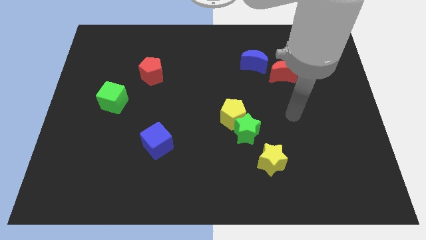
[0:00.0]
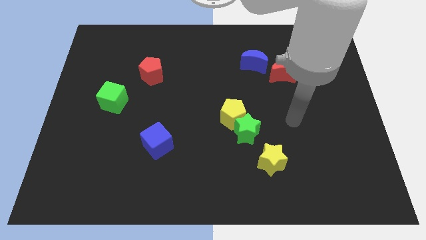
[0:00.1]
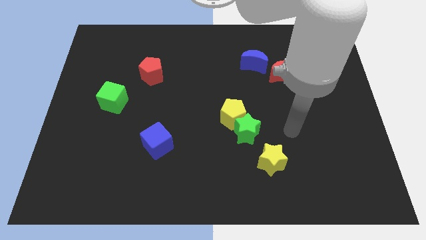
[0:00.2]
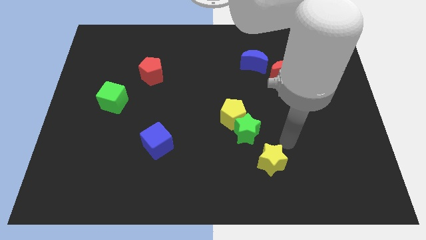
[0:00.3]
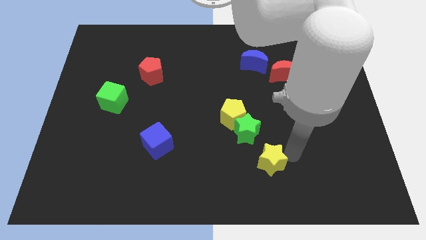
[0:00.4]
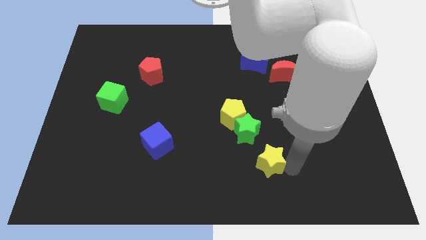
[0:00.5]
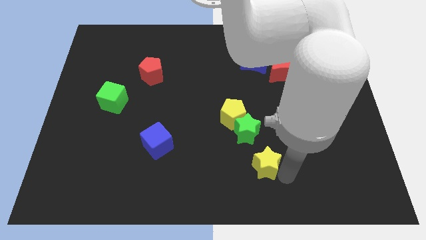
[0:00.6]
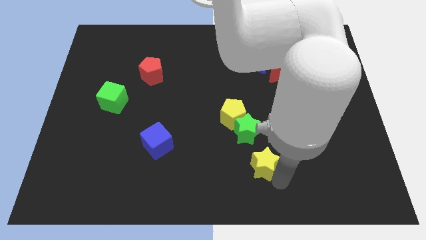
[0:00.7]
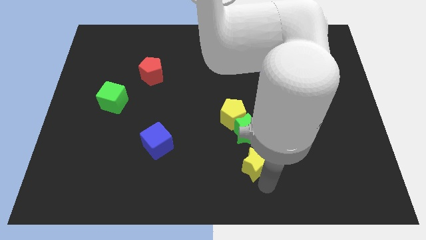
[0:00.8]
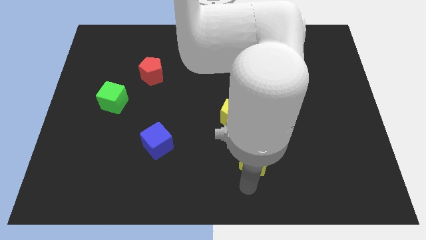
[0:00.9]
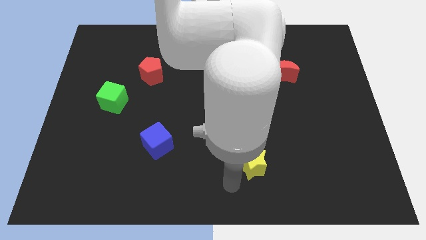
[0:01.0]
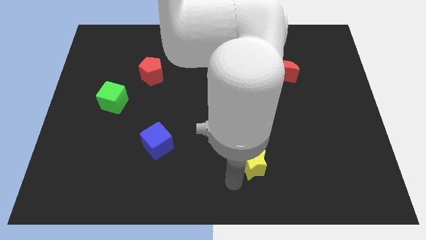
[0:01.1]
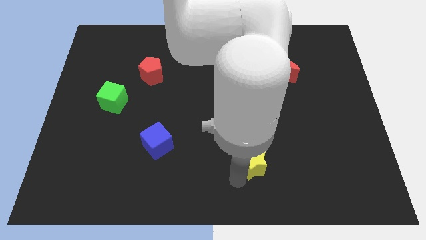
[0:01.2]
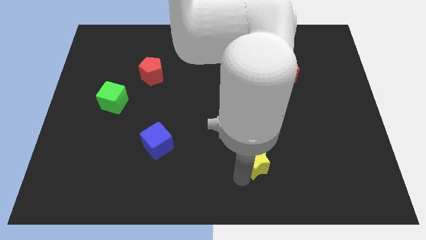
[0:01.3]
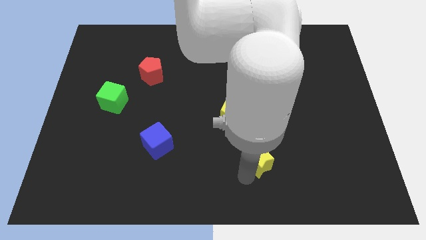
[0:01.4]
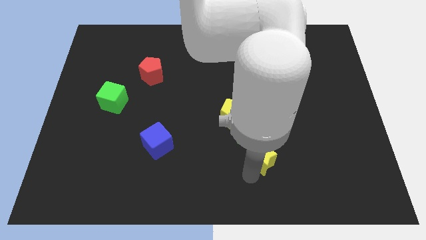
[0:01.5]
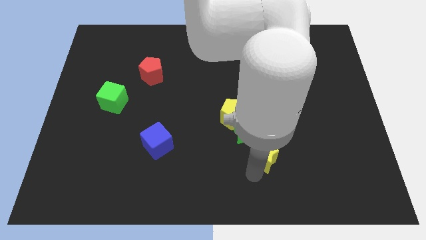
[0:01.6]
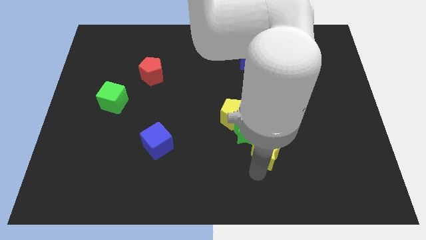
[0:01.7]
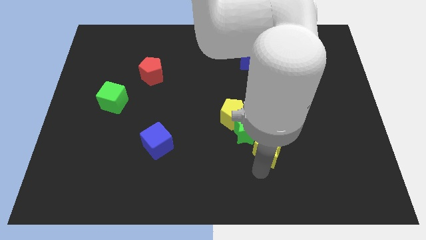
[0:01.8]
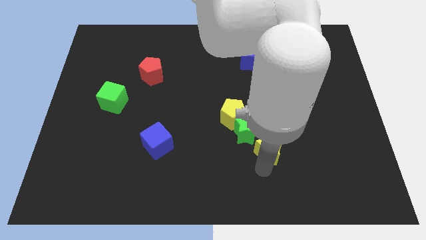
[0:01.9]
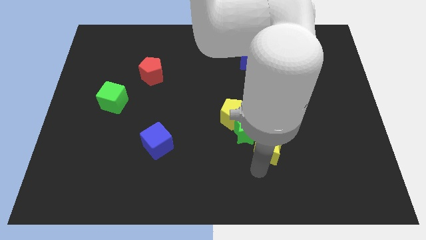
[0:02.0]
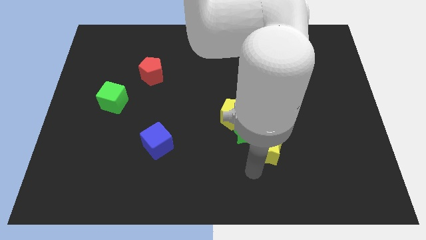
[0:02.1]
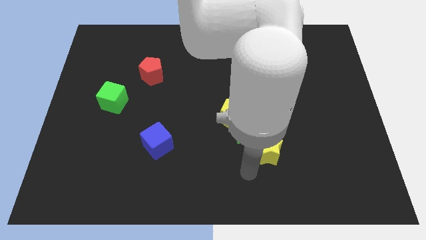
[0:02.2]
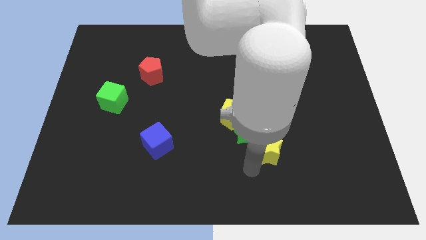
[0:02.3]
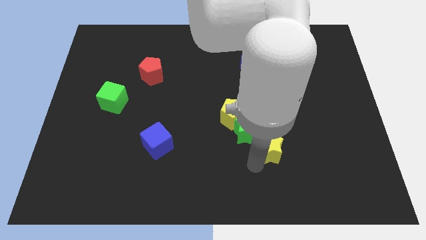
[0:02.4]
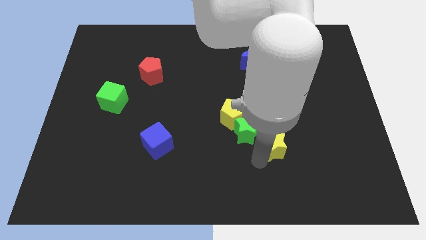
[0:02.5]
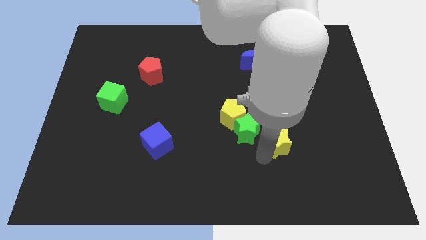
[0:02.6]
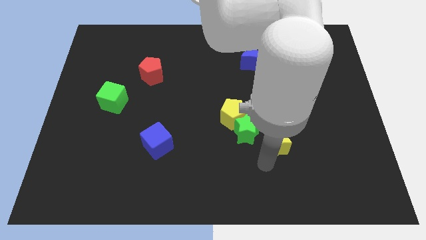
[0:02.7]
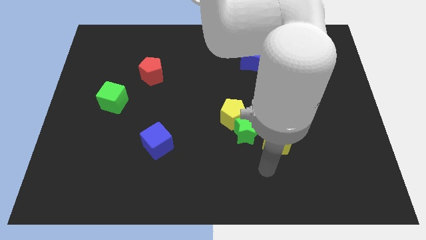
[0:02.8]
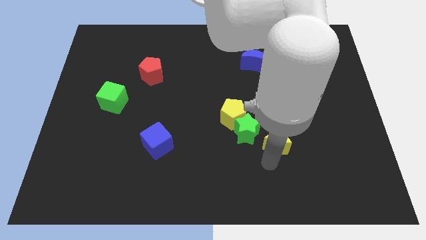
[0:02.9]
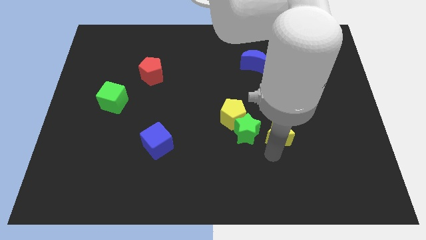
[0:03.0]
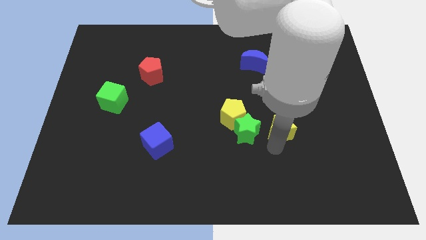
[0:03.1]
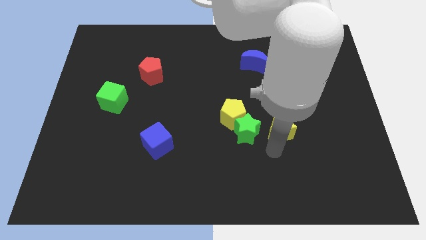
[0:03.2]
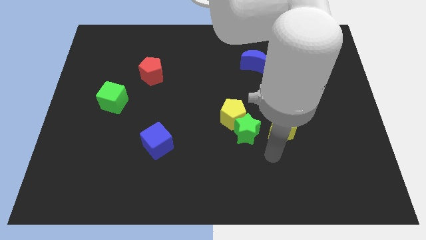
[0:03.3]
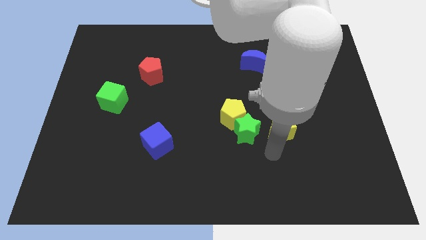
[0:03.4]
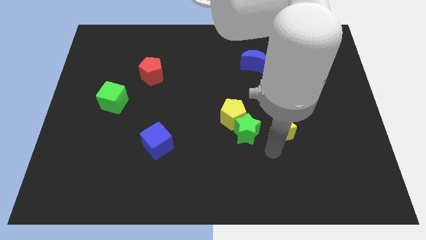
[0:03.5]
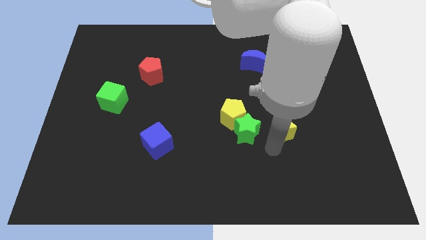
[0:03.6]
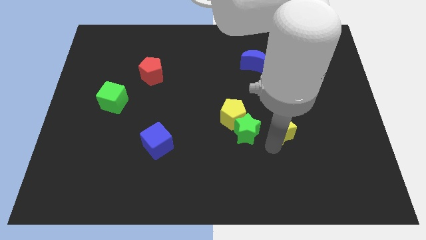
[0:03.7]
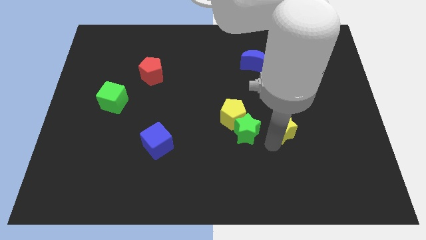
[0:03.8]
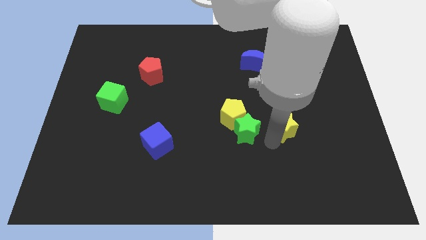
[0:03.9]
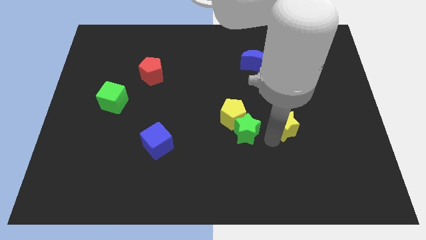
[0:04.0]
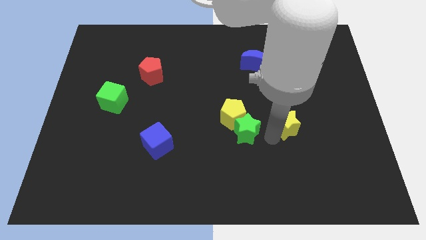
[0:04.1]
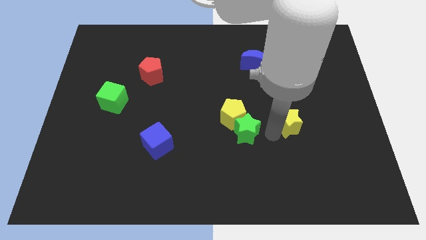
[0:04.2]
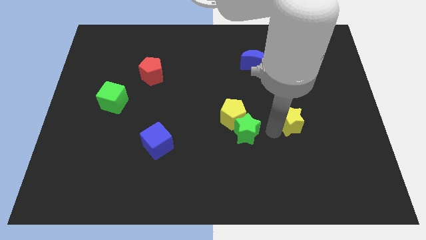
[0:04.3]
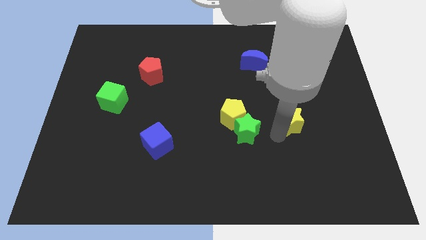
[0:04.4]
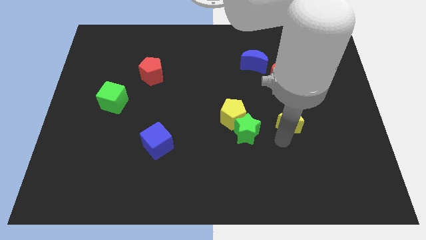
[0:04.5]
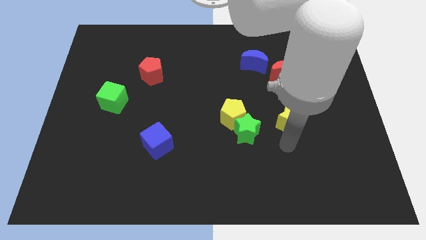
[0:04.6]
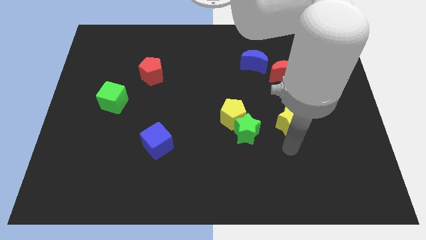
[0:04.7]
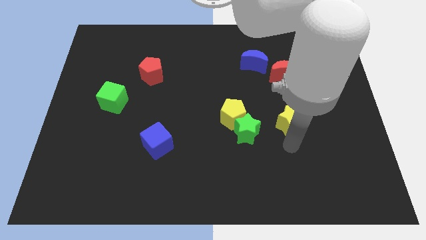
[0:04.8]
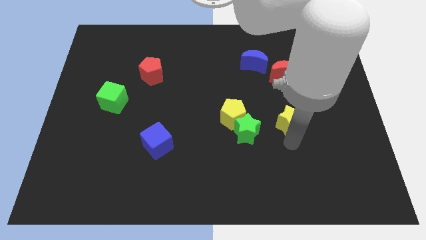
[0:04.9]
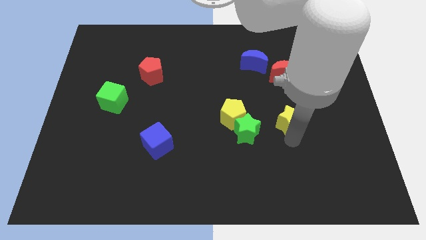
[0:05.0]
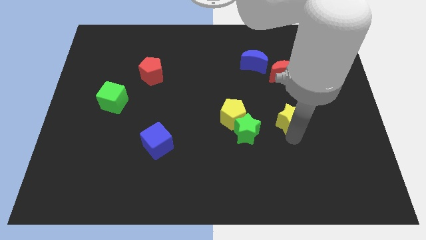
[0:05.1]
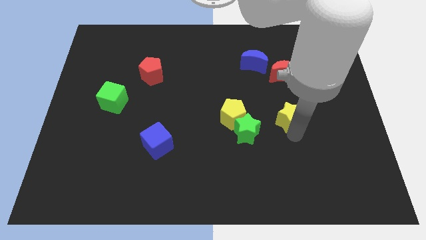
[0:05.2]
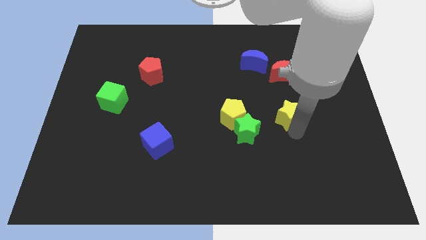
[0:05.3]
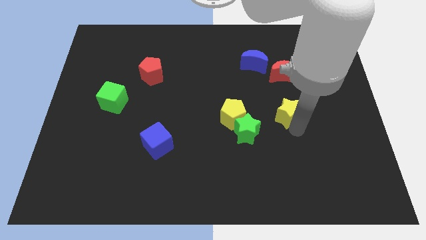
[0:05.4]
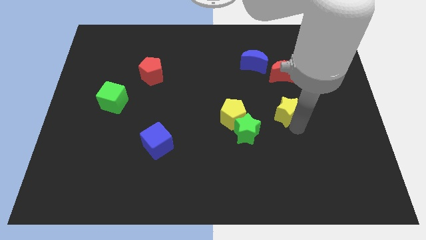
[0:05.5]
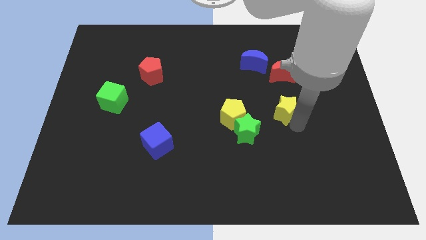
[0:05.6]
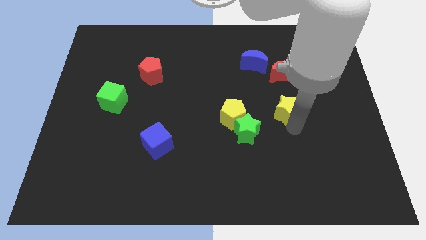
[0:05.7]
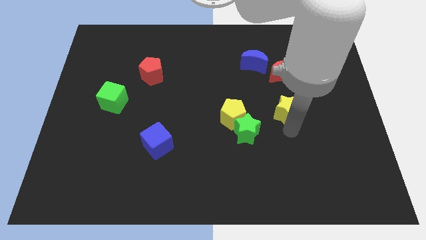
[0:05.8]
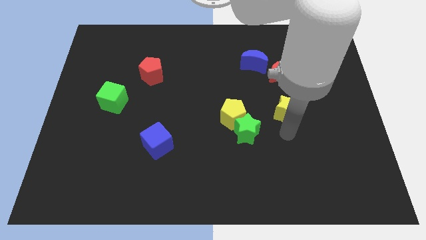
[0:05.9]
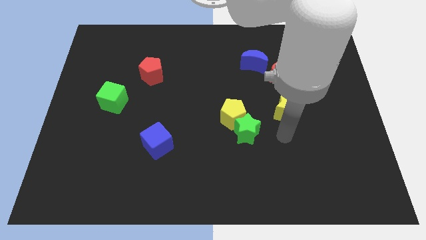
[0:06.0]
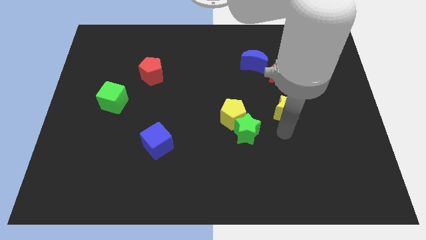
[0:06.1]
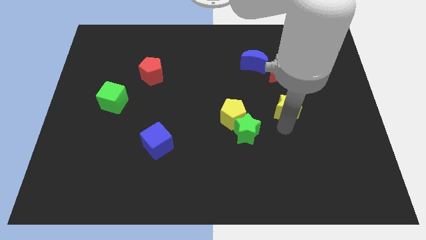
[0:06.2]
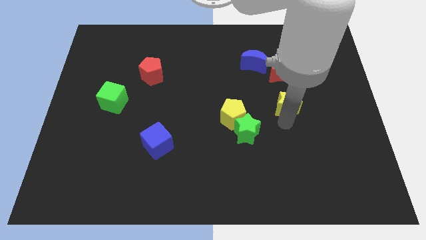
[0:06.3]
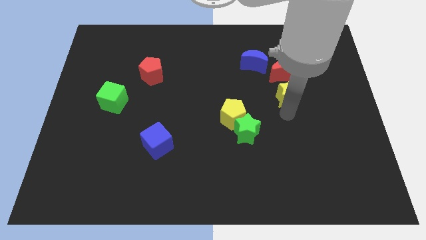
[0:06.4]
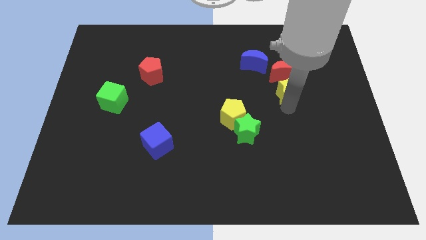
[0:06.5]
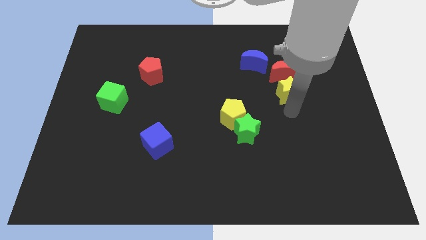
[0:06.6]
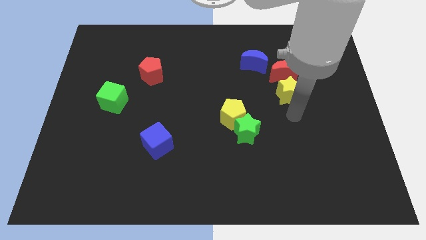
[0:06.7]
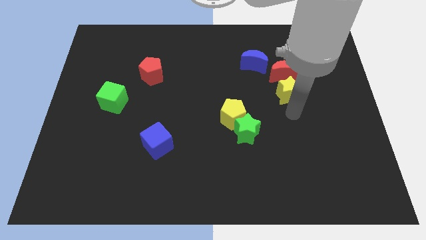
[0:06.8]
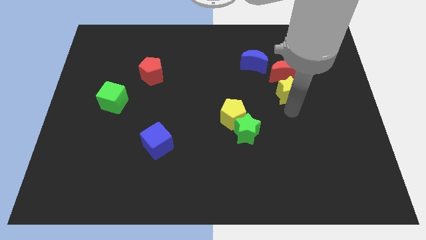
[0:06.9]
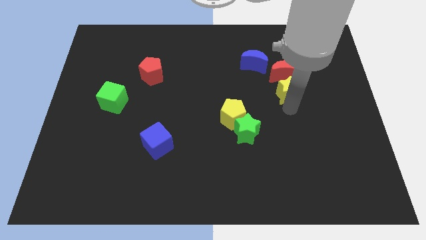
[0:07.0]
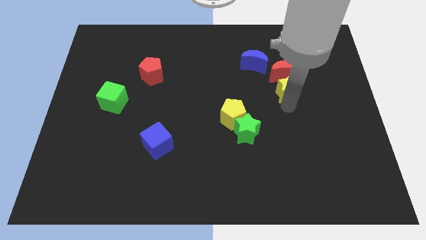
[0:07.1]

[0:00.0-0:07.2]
push the yellow star to the red moon

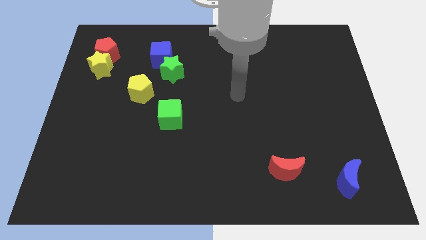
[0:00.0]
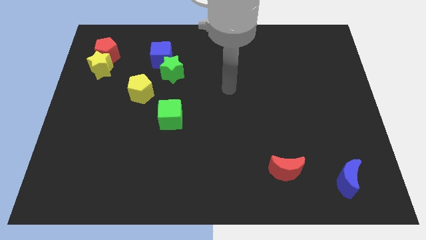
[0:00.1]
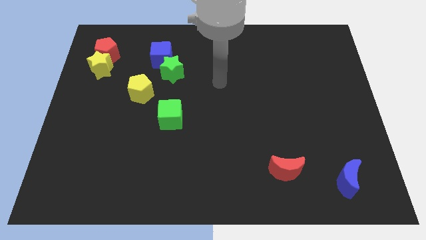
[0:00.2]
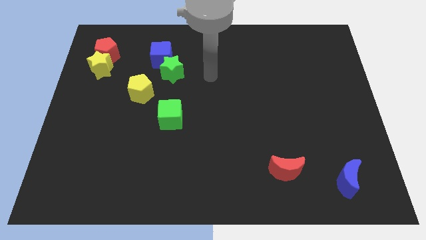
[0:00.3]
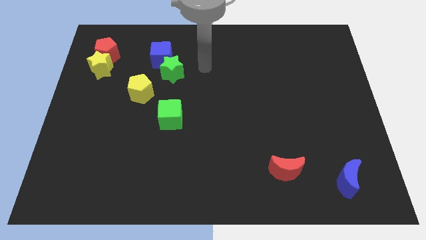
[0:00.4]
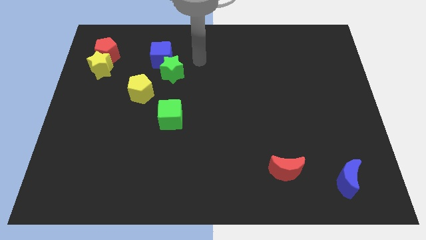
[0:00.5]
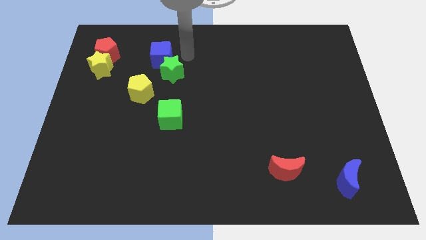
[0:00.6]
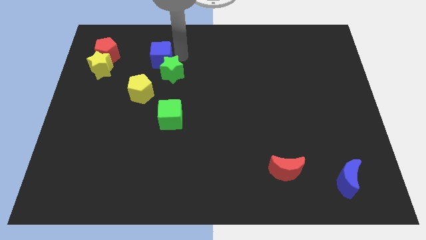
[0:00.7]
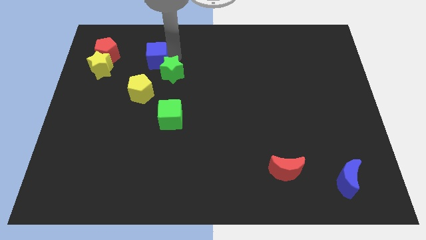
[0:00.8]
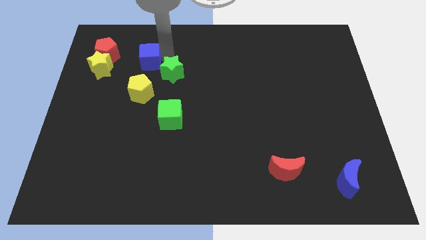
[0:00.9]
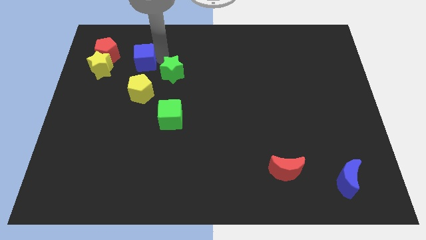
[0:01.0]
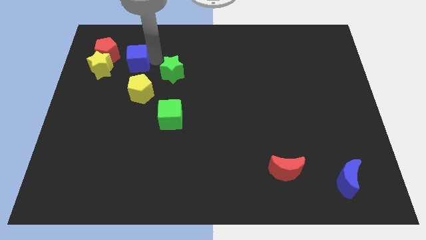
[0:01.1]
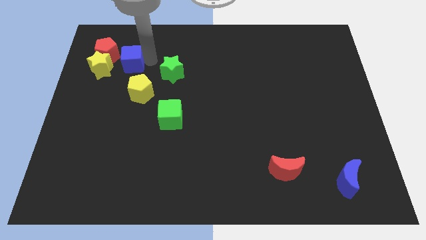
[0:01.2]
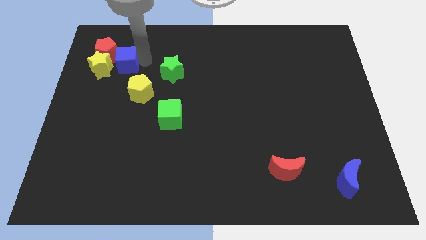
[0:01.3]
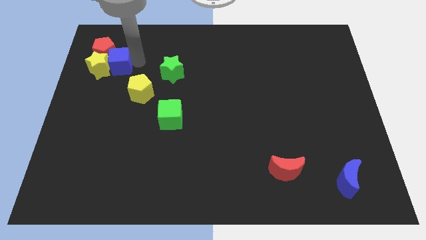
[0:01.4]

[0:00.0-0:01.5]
move the blue cube close to the yellow star
